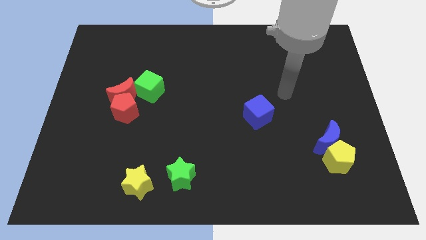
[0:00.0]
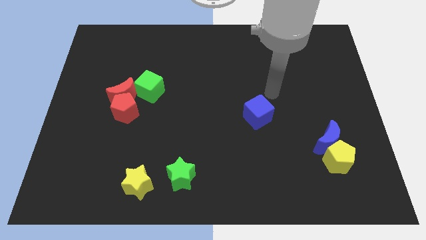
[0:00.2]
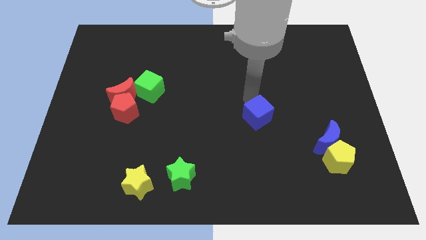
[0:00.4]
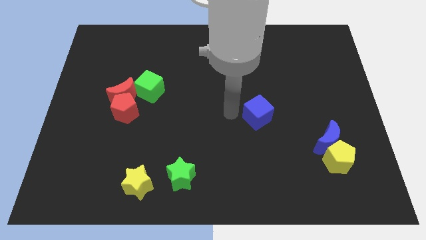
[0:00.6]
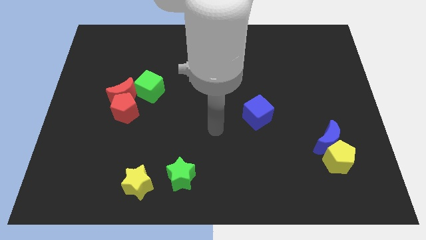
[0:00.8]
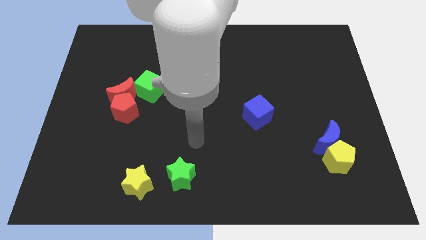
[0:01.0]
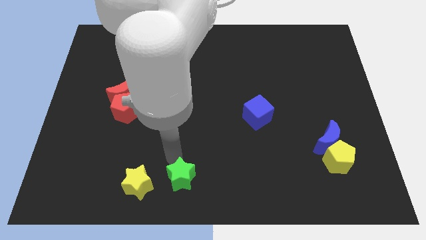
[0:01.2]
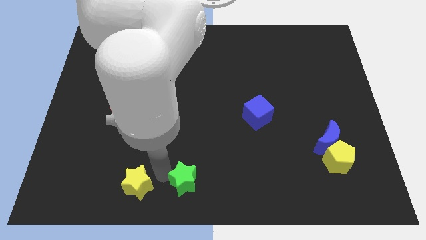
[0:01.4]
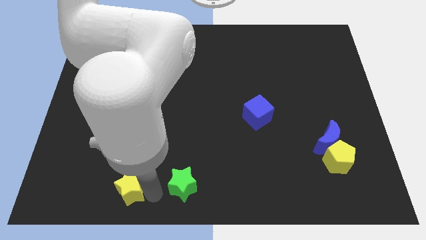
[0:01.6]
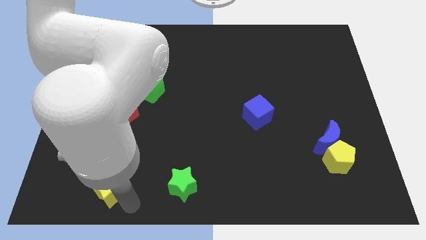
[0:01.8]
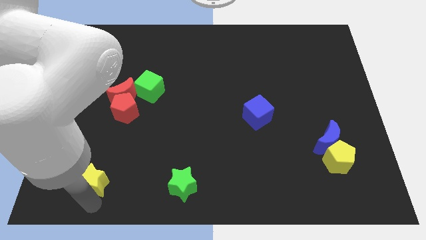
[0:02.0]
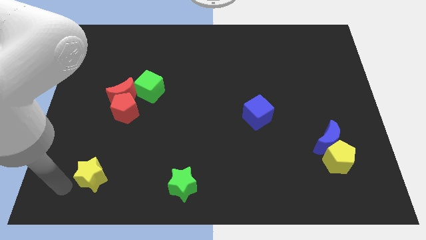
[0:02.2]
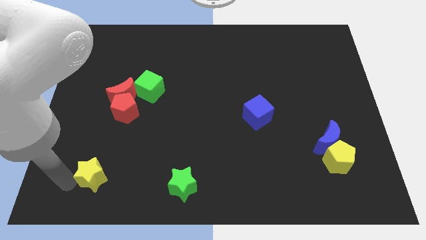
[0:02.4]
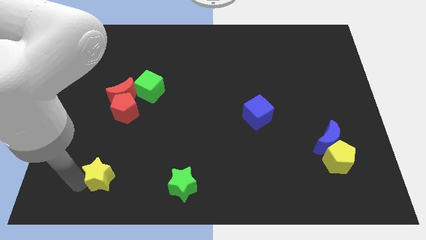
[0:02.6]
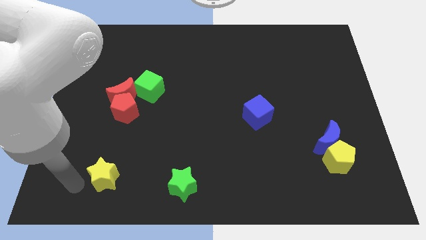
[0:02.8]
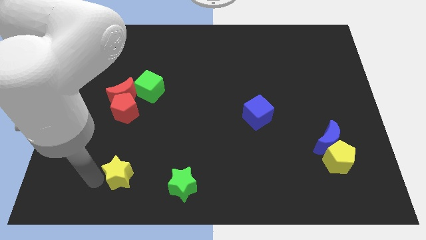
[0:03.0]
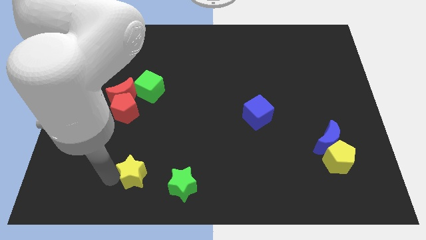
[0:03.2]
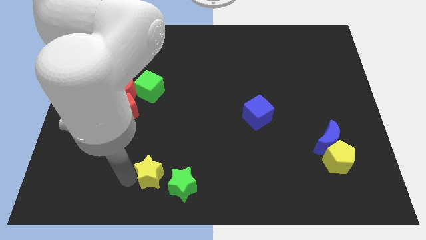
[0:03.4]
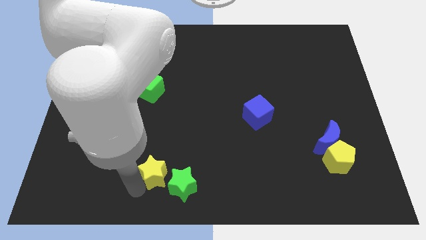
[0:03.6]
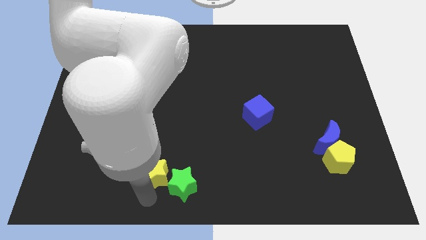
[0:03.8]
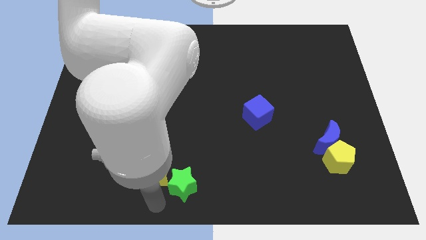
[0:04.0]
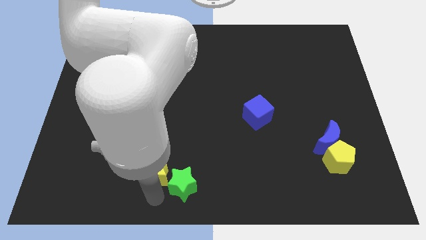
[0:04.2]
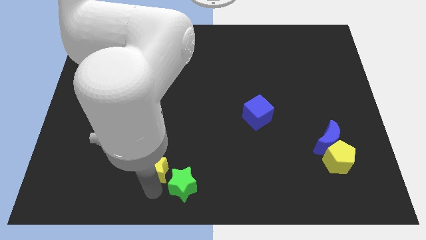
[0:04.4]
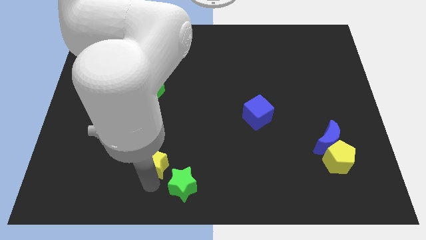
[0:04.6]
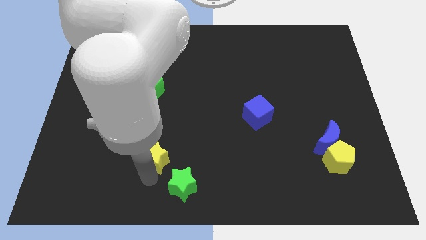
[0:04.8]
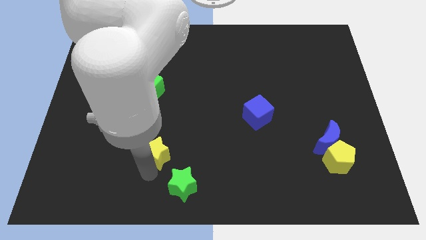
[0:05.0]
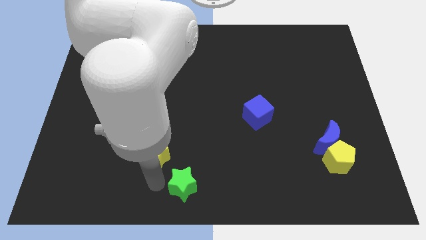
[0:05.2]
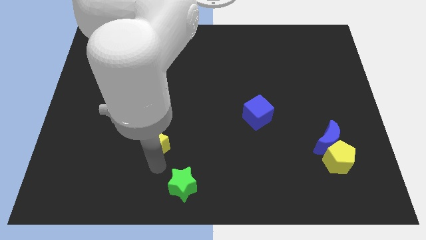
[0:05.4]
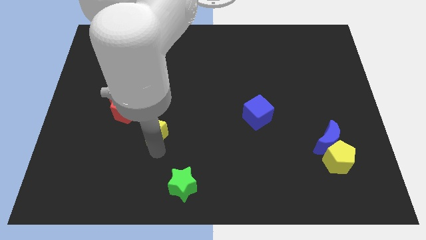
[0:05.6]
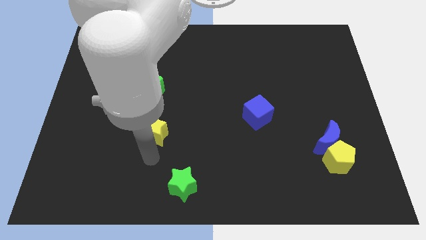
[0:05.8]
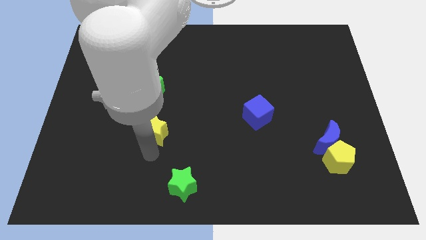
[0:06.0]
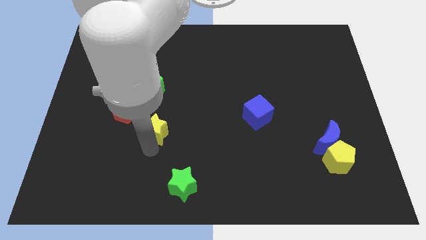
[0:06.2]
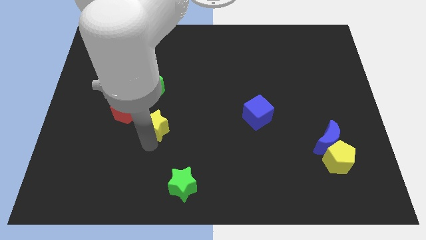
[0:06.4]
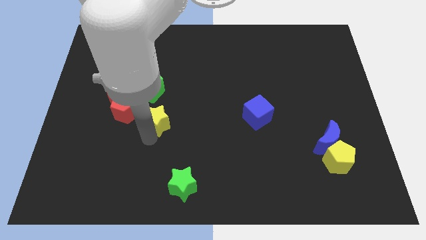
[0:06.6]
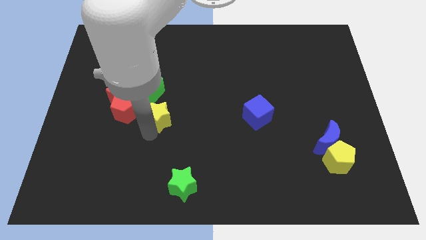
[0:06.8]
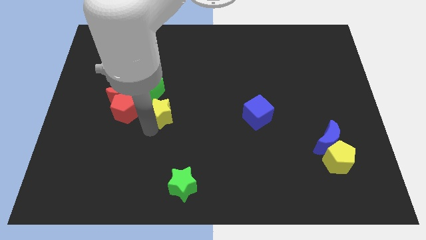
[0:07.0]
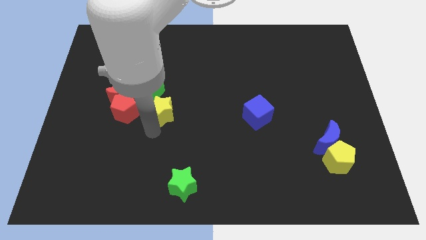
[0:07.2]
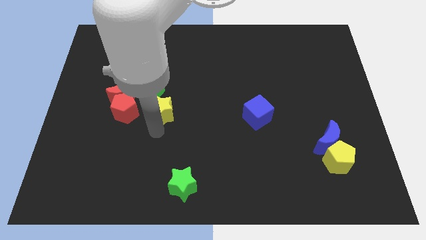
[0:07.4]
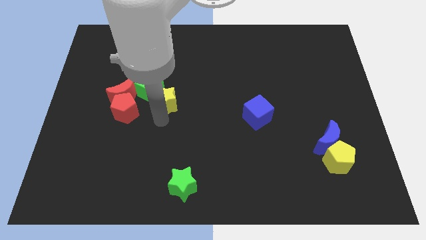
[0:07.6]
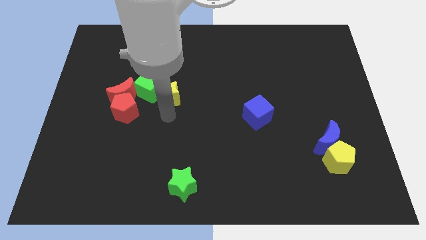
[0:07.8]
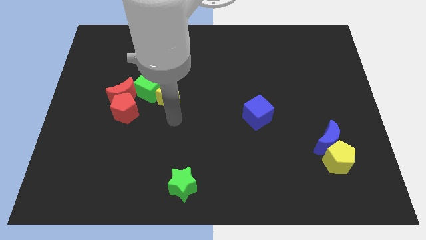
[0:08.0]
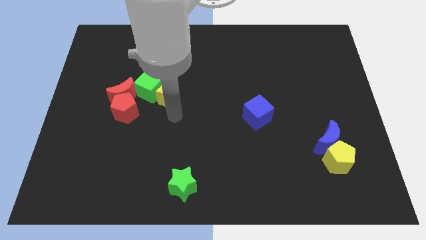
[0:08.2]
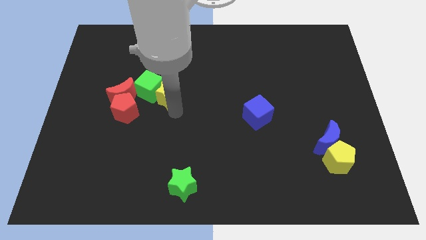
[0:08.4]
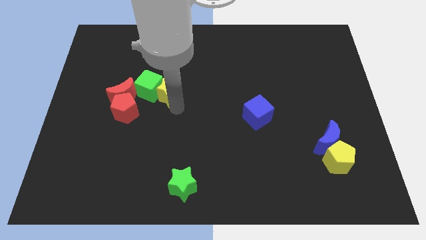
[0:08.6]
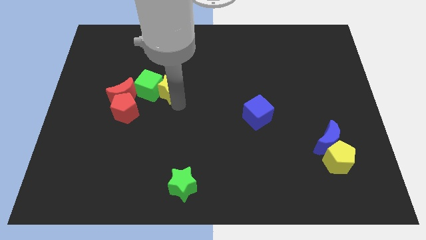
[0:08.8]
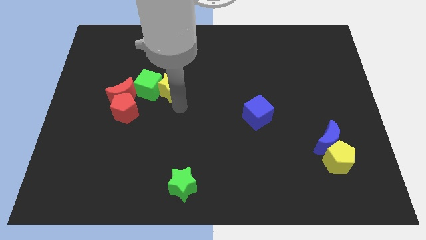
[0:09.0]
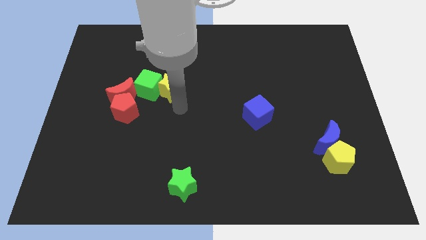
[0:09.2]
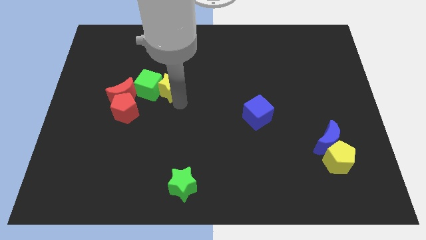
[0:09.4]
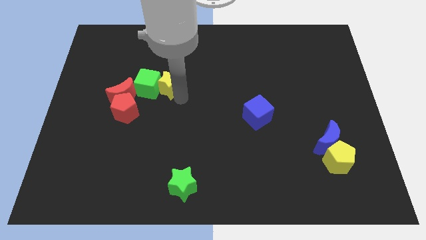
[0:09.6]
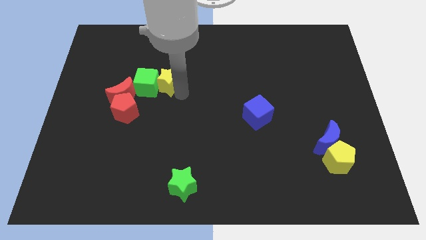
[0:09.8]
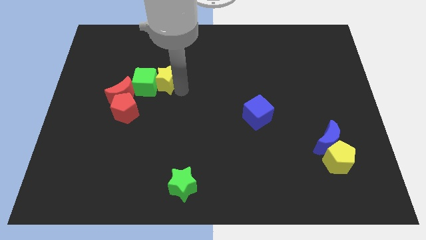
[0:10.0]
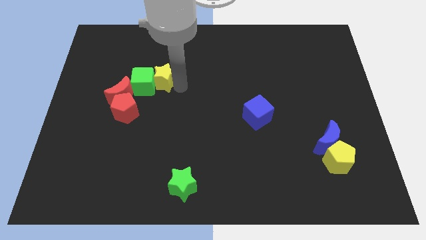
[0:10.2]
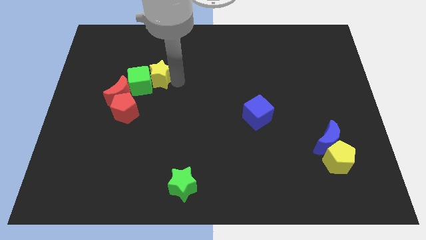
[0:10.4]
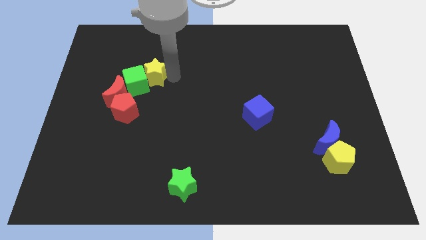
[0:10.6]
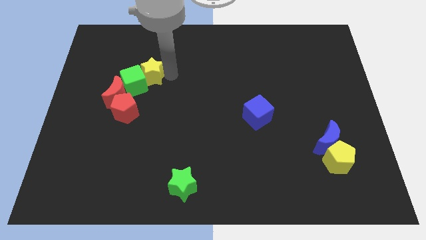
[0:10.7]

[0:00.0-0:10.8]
move the yellow star to the top side of the green cube

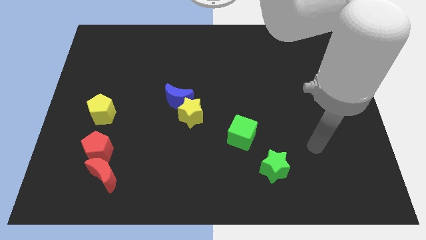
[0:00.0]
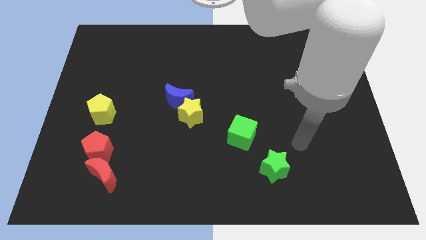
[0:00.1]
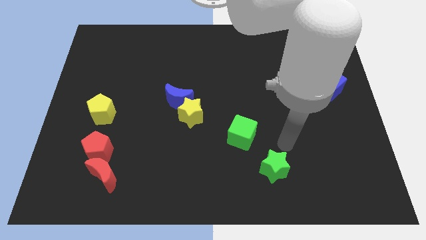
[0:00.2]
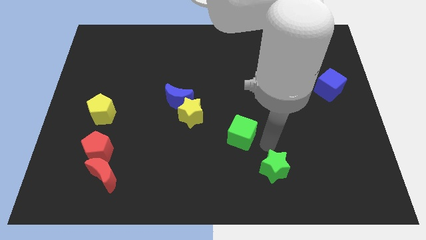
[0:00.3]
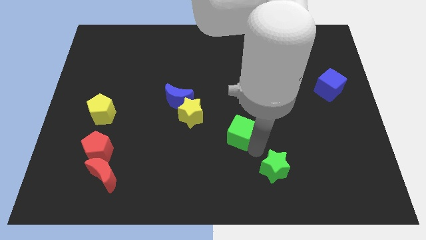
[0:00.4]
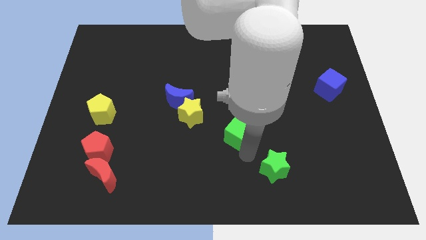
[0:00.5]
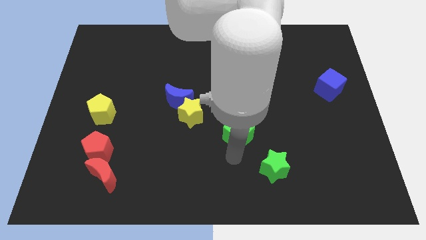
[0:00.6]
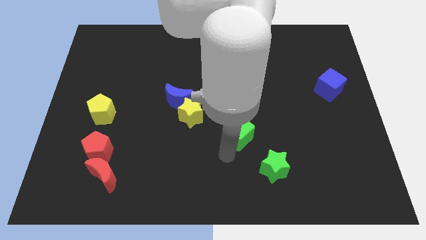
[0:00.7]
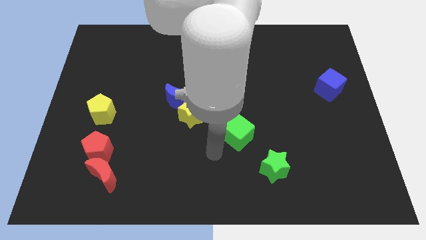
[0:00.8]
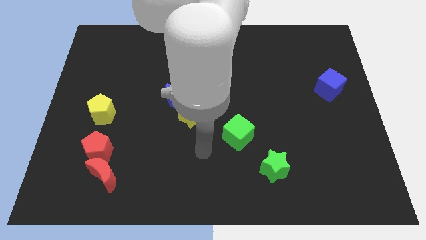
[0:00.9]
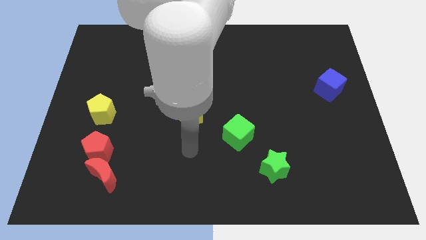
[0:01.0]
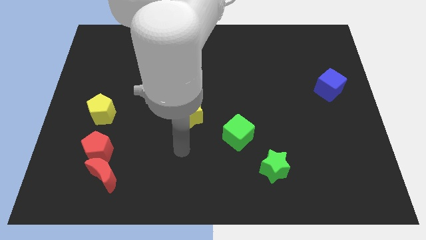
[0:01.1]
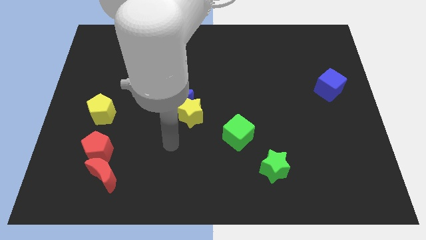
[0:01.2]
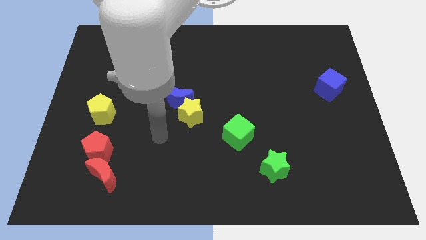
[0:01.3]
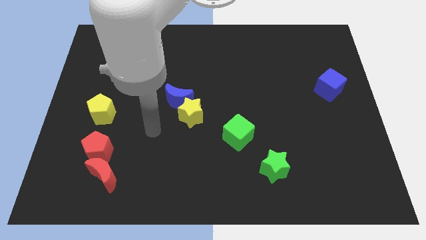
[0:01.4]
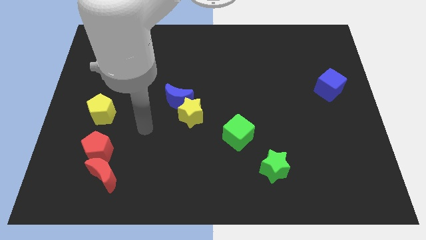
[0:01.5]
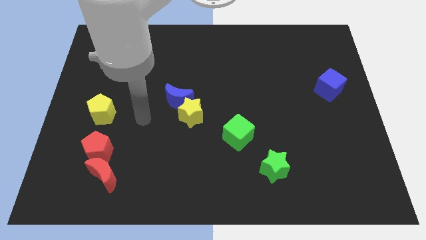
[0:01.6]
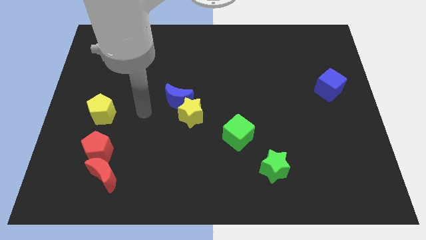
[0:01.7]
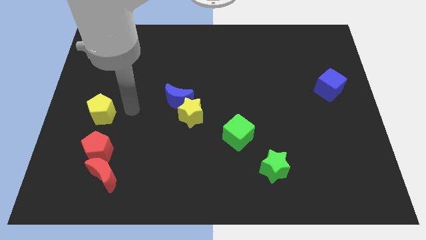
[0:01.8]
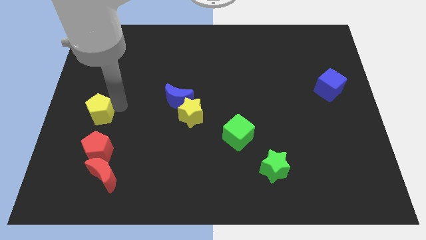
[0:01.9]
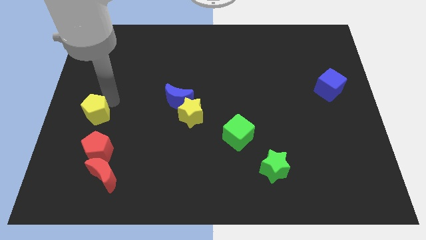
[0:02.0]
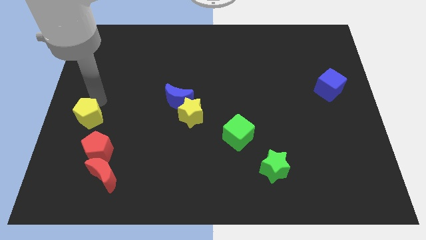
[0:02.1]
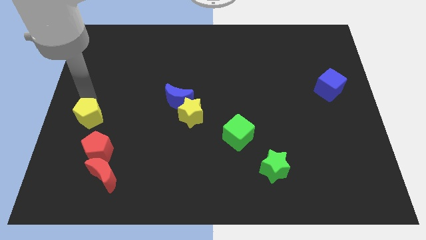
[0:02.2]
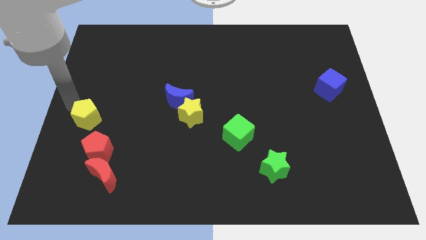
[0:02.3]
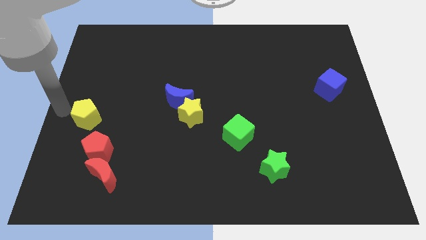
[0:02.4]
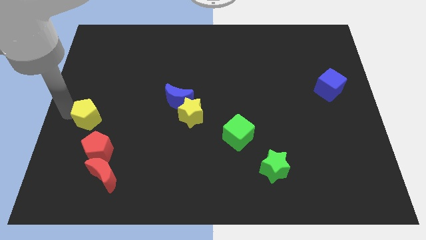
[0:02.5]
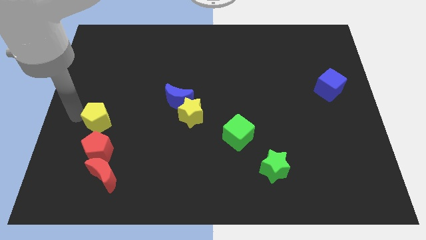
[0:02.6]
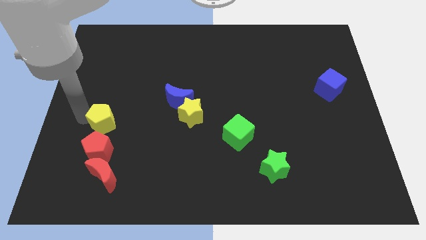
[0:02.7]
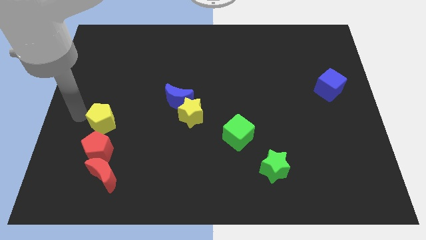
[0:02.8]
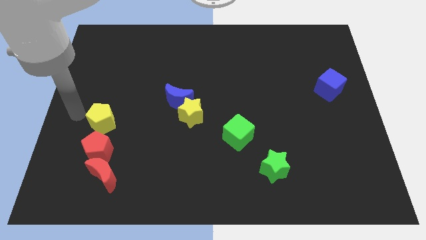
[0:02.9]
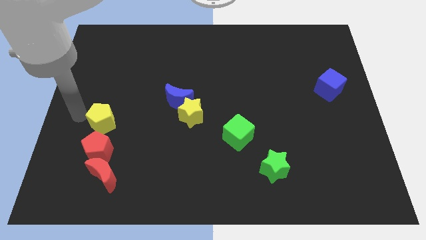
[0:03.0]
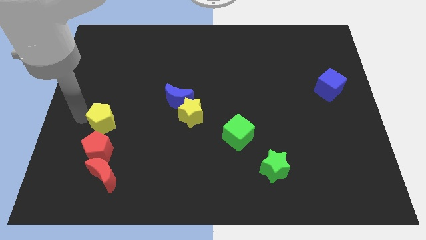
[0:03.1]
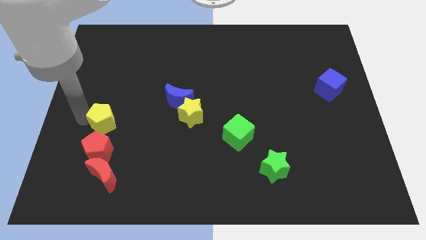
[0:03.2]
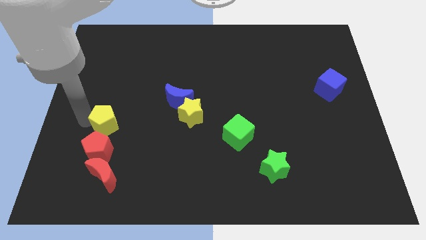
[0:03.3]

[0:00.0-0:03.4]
slide the yellow pentagon to the top right side of the red pentagon
